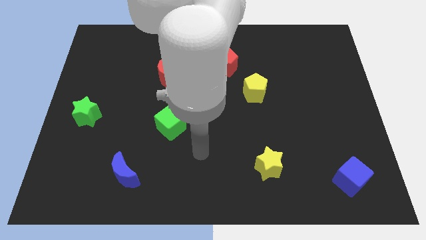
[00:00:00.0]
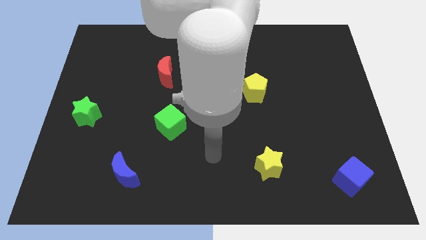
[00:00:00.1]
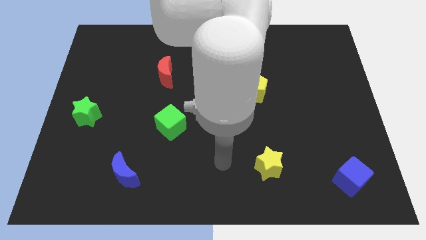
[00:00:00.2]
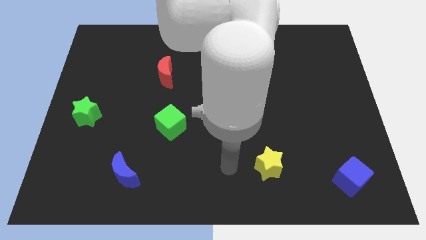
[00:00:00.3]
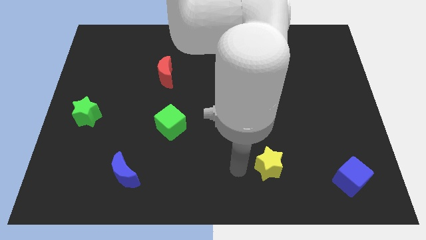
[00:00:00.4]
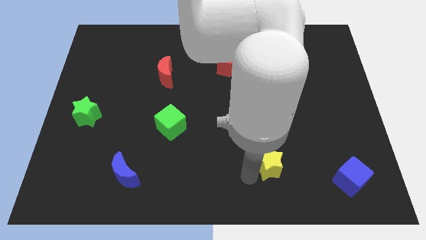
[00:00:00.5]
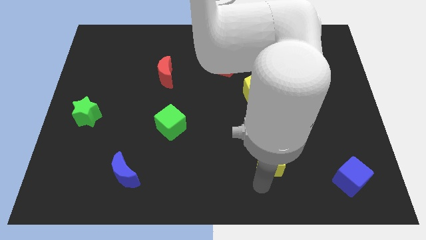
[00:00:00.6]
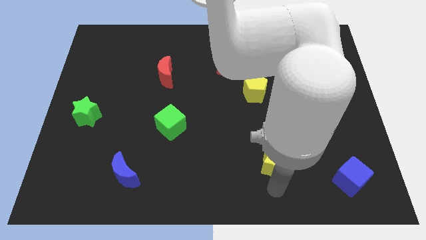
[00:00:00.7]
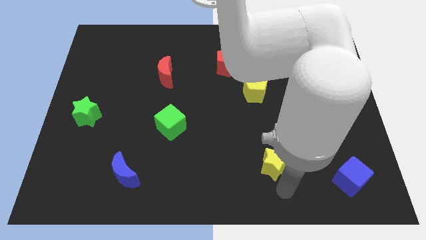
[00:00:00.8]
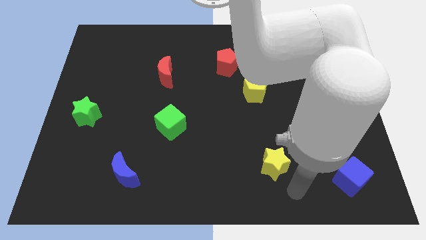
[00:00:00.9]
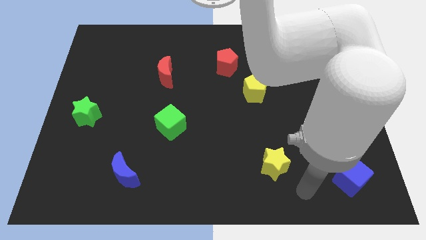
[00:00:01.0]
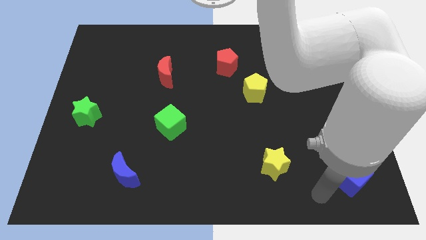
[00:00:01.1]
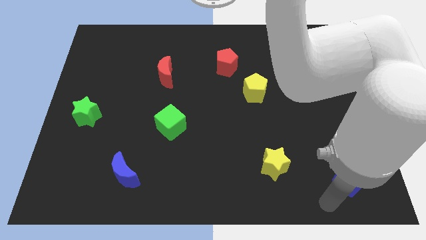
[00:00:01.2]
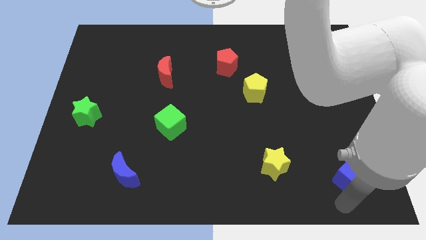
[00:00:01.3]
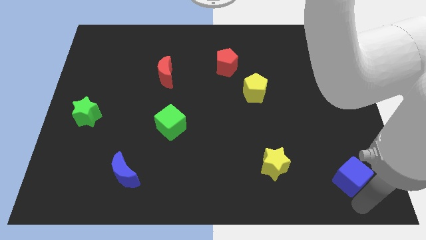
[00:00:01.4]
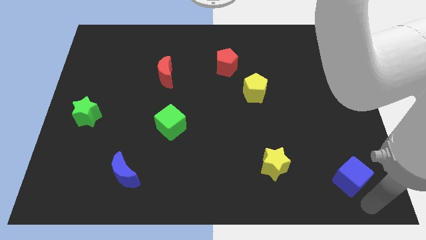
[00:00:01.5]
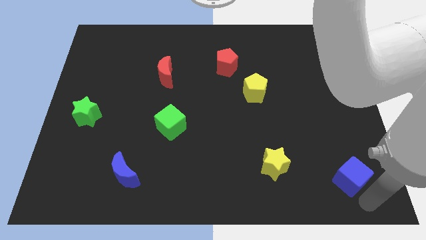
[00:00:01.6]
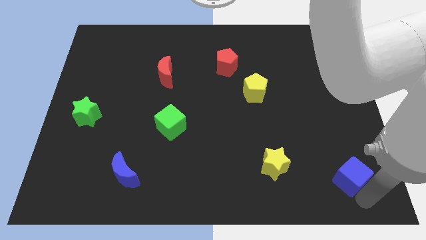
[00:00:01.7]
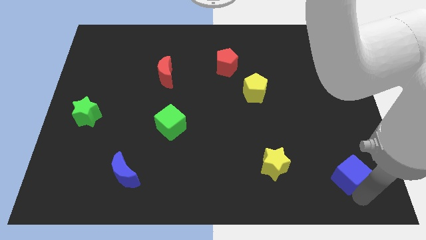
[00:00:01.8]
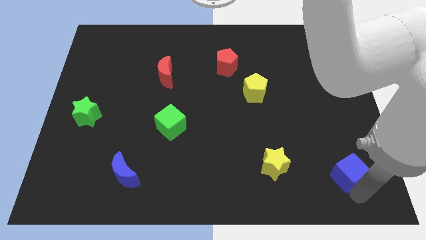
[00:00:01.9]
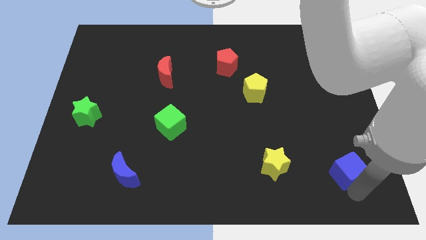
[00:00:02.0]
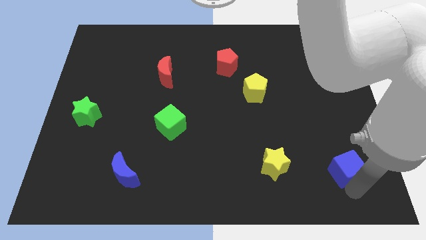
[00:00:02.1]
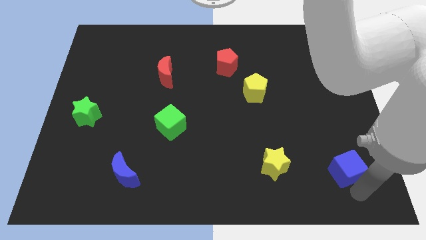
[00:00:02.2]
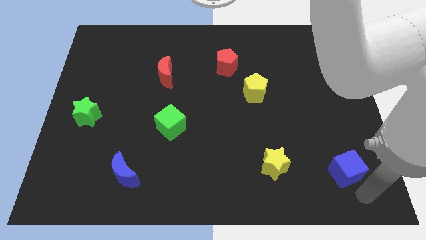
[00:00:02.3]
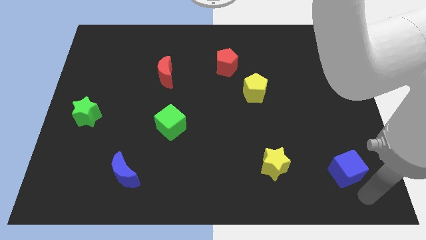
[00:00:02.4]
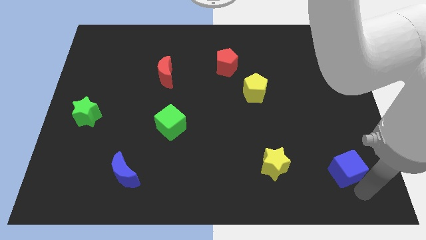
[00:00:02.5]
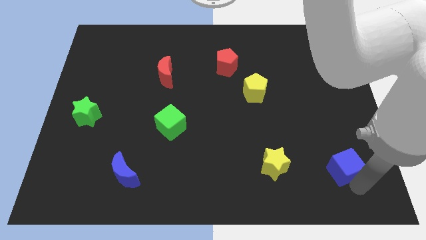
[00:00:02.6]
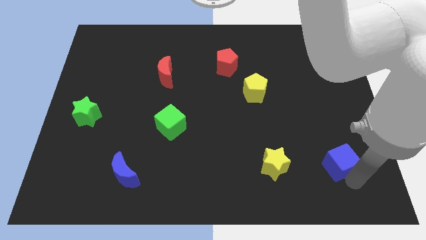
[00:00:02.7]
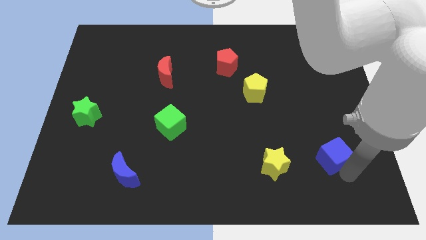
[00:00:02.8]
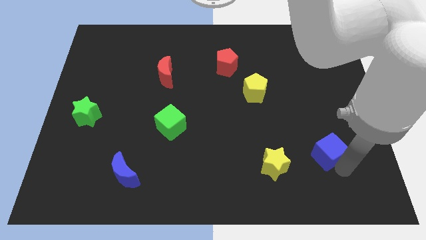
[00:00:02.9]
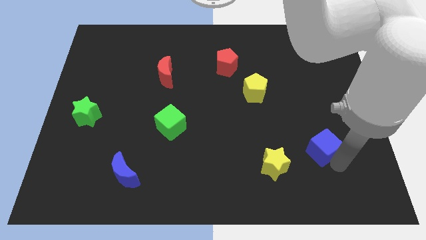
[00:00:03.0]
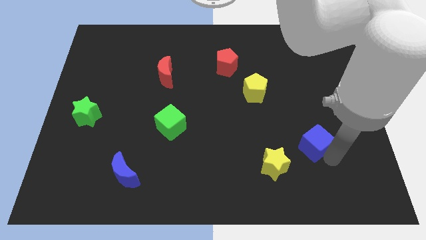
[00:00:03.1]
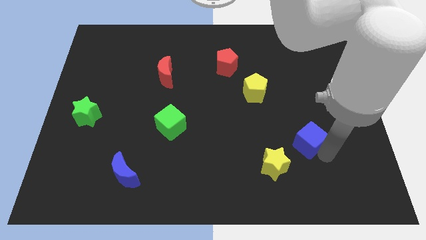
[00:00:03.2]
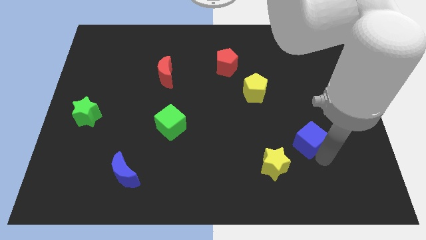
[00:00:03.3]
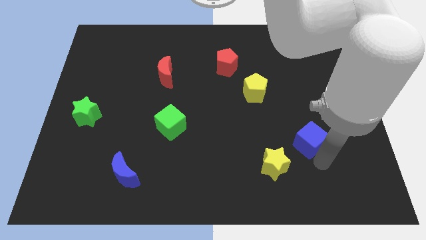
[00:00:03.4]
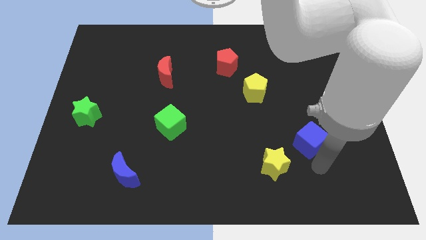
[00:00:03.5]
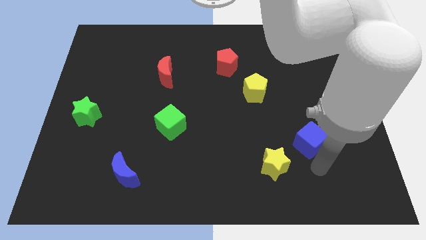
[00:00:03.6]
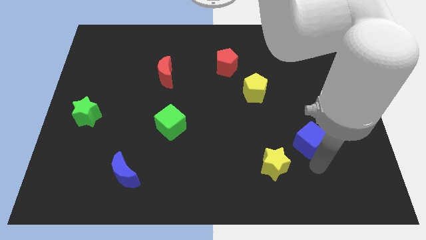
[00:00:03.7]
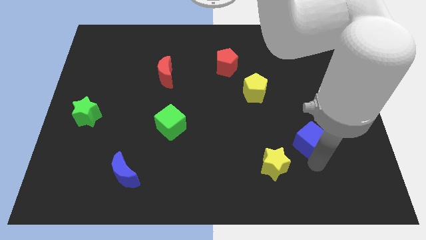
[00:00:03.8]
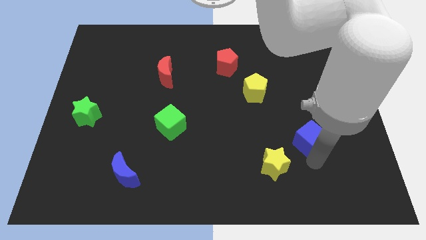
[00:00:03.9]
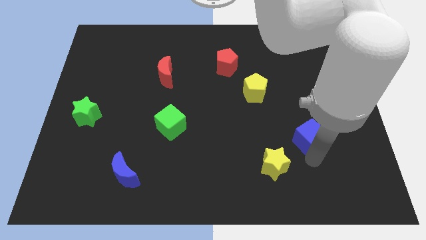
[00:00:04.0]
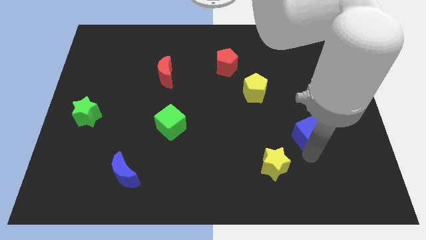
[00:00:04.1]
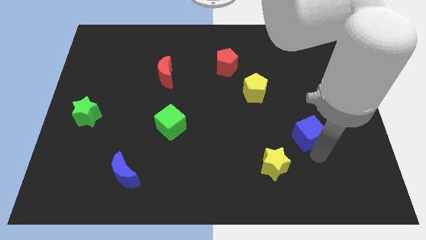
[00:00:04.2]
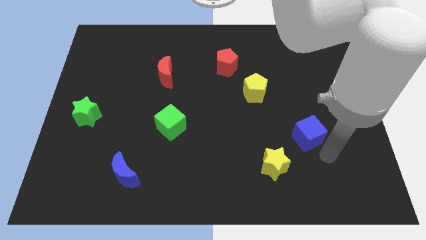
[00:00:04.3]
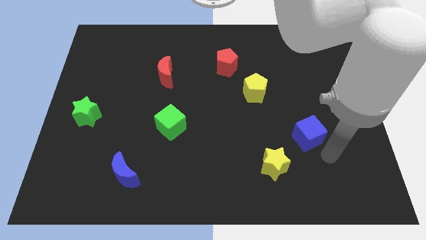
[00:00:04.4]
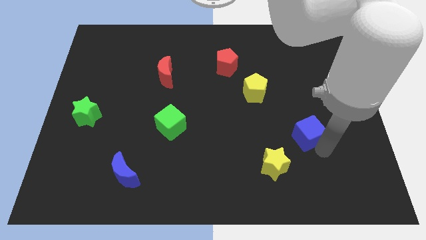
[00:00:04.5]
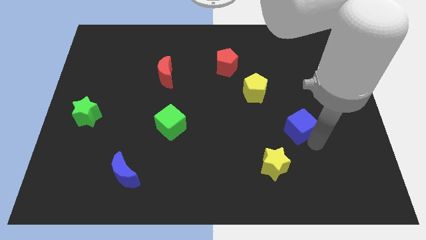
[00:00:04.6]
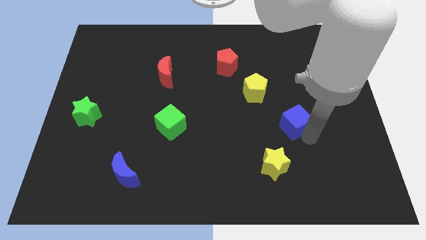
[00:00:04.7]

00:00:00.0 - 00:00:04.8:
move the blue cube diagonally down and to the right of the yellow pentagon

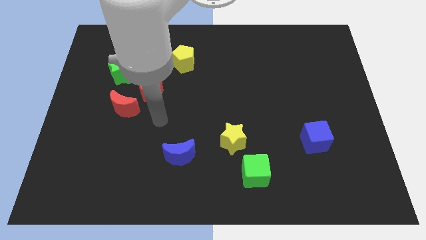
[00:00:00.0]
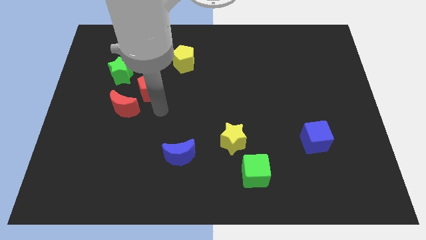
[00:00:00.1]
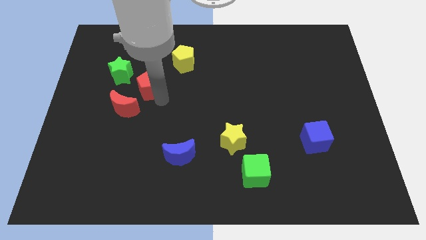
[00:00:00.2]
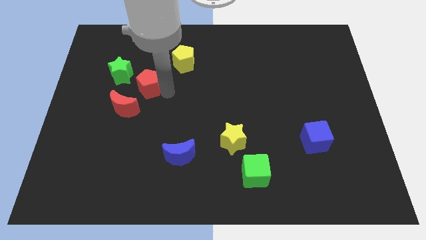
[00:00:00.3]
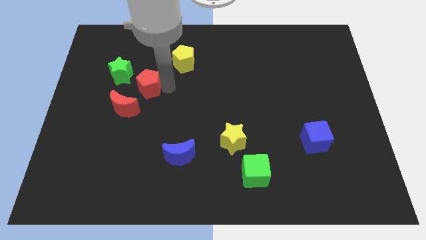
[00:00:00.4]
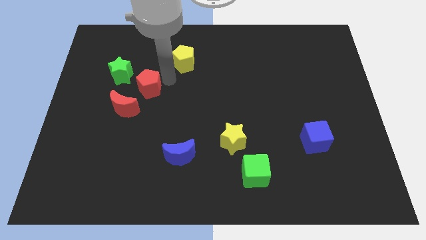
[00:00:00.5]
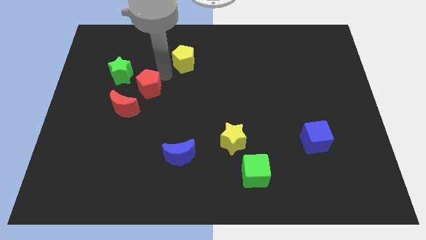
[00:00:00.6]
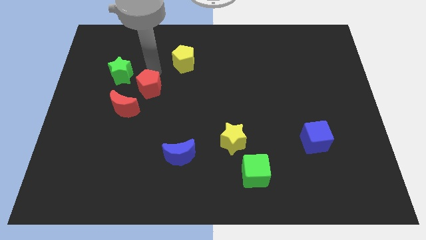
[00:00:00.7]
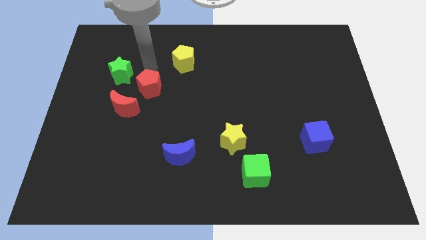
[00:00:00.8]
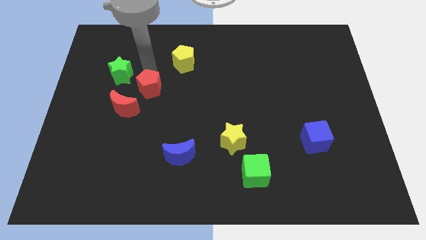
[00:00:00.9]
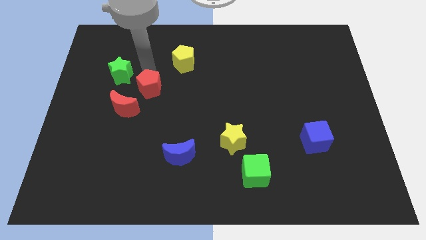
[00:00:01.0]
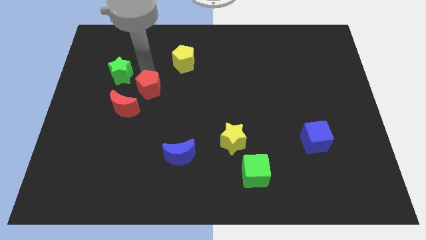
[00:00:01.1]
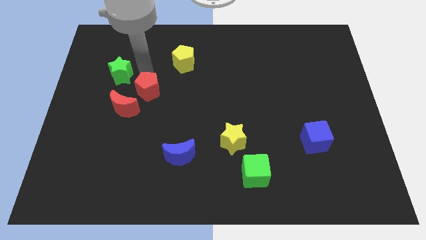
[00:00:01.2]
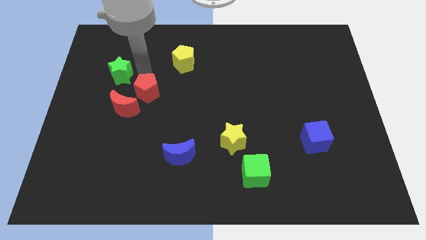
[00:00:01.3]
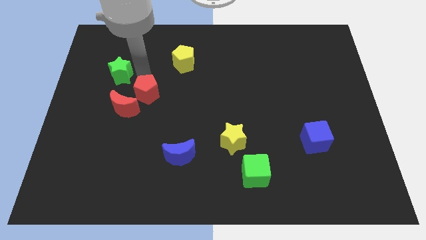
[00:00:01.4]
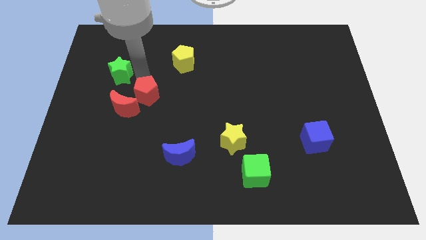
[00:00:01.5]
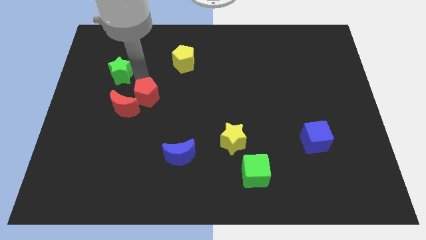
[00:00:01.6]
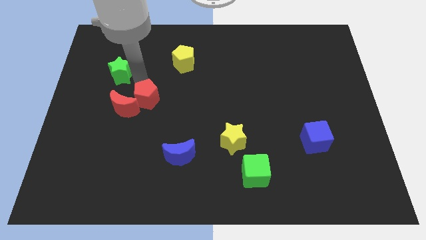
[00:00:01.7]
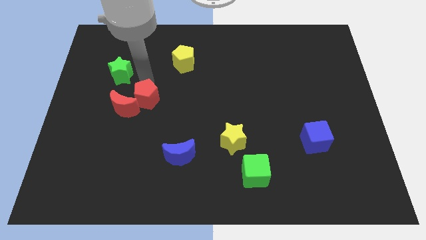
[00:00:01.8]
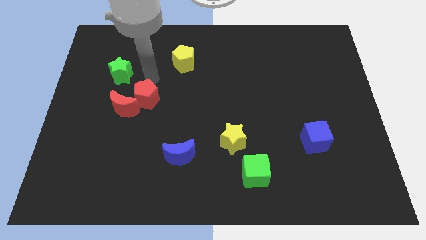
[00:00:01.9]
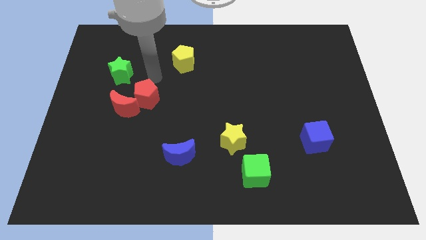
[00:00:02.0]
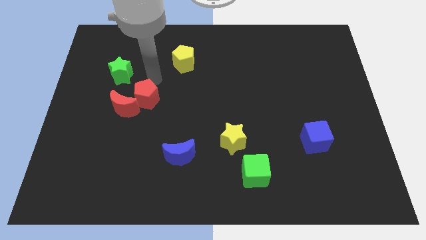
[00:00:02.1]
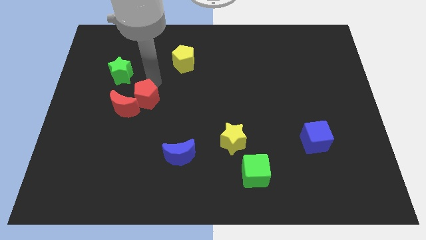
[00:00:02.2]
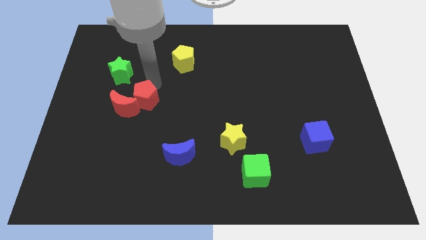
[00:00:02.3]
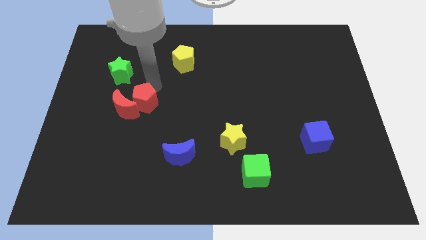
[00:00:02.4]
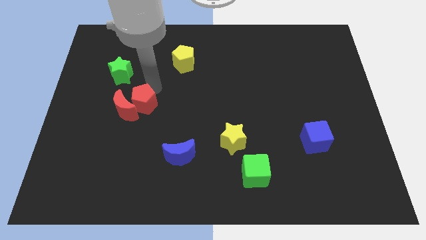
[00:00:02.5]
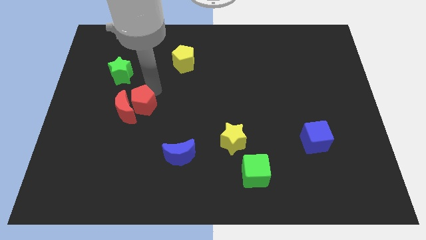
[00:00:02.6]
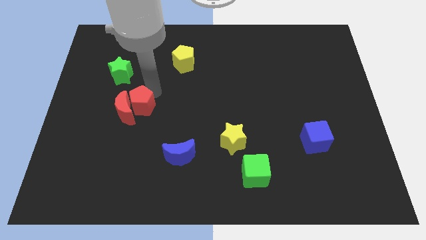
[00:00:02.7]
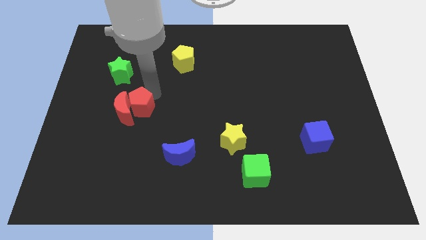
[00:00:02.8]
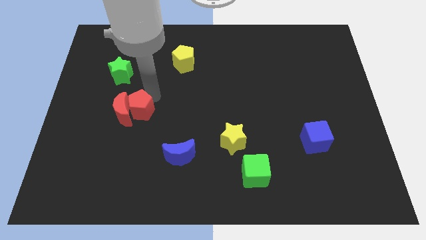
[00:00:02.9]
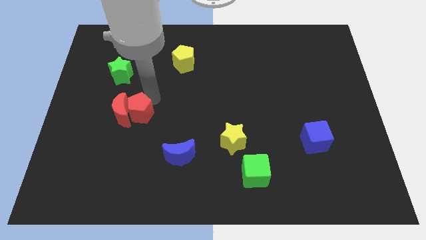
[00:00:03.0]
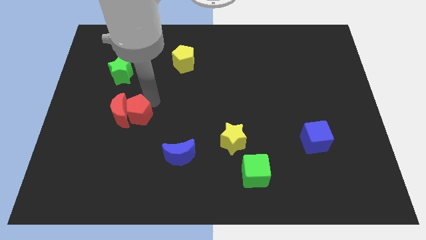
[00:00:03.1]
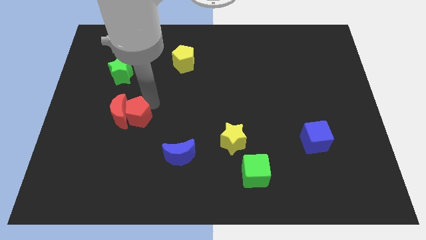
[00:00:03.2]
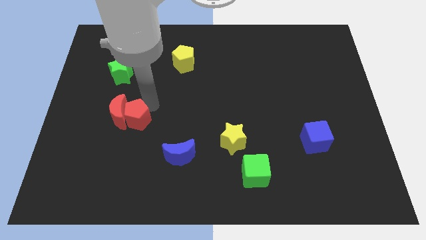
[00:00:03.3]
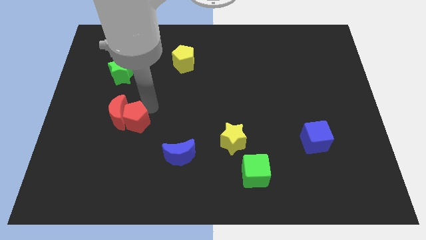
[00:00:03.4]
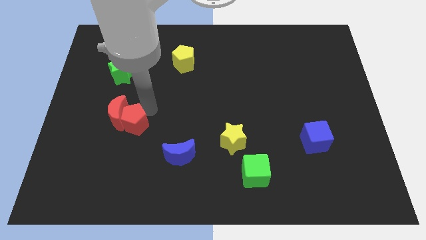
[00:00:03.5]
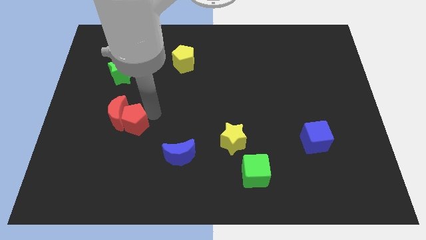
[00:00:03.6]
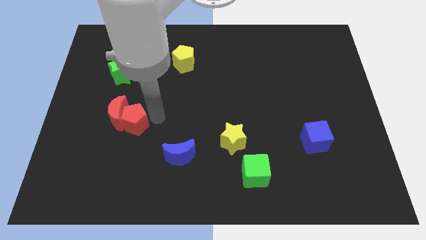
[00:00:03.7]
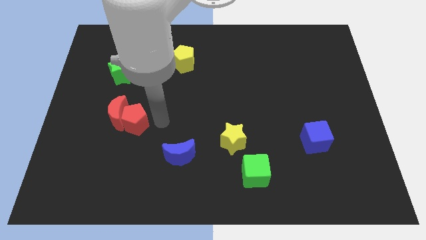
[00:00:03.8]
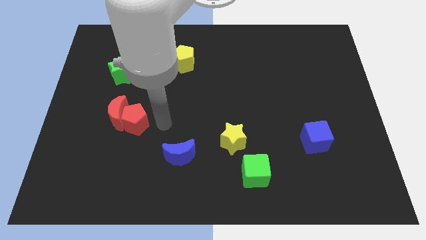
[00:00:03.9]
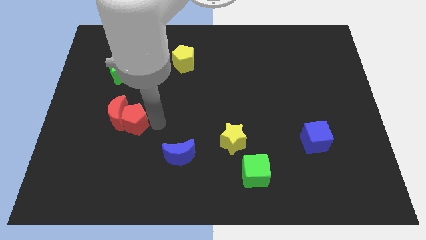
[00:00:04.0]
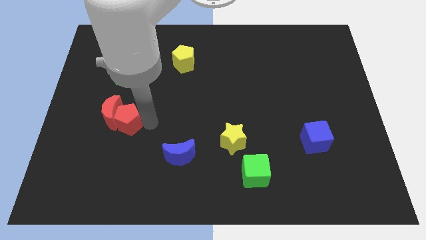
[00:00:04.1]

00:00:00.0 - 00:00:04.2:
slide the red pentagon to the bottom side of the green star
